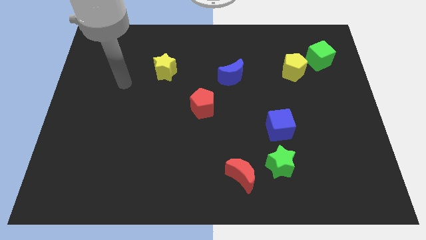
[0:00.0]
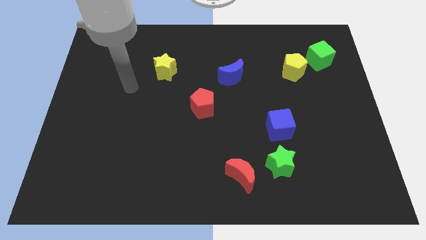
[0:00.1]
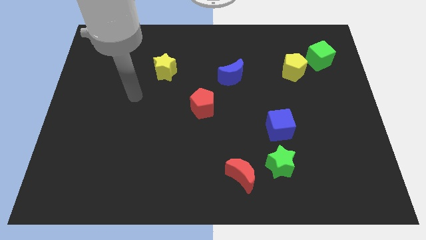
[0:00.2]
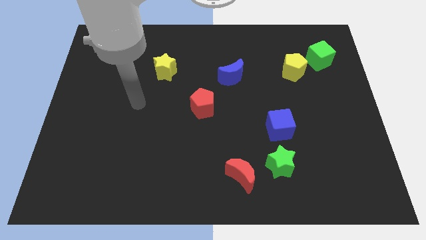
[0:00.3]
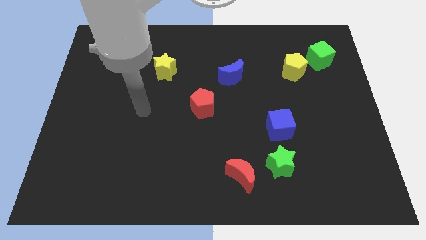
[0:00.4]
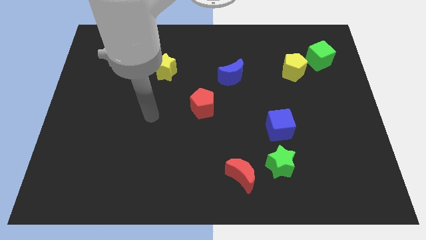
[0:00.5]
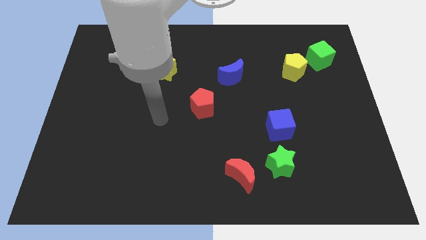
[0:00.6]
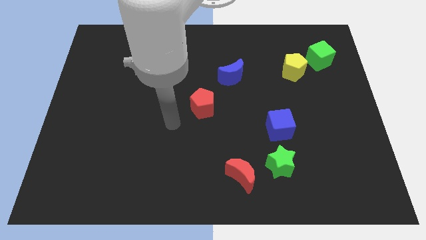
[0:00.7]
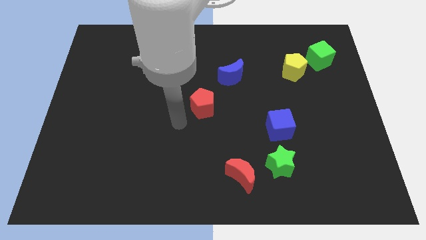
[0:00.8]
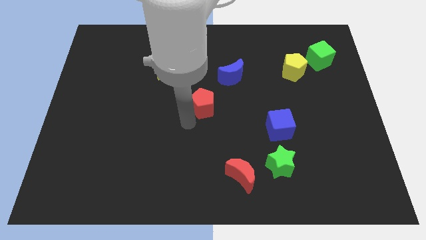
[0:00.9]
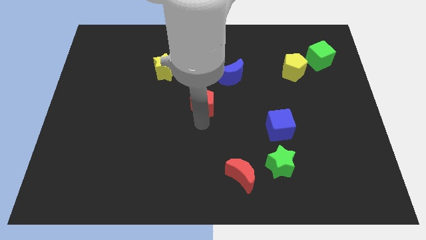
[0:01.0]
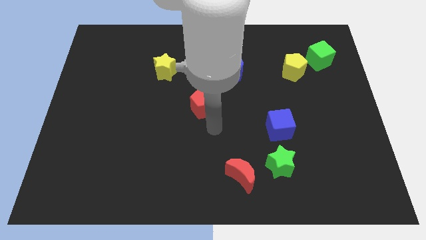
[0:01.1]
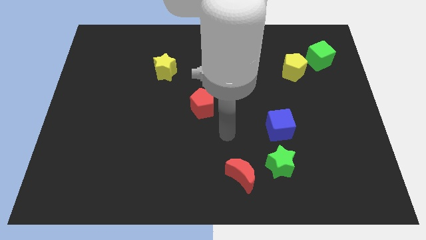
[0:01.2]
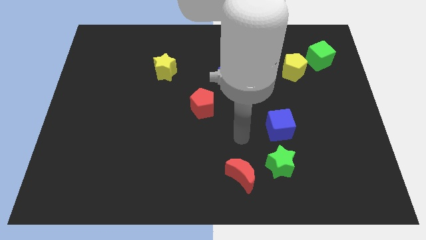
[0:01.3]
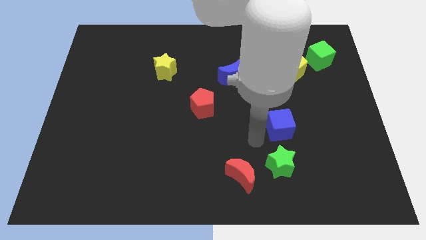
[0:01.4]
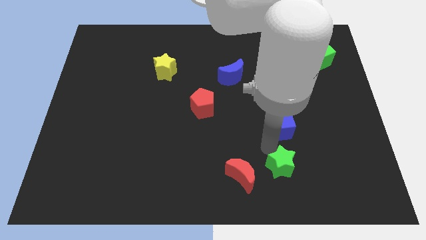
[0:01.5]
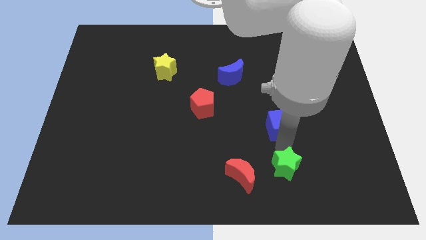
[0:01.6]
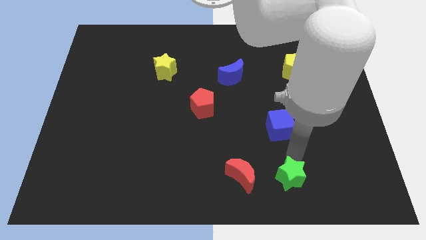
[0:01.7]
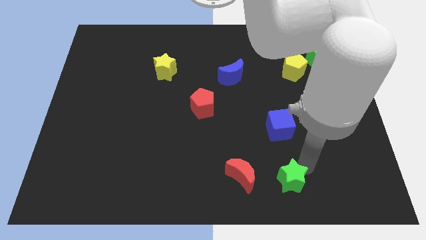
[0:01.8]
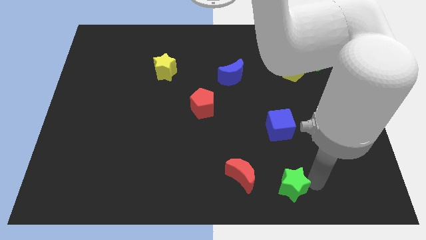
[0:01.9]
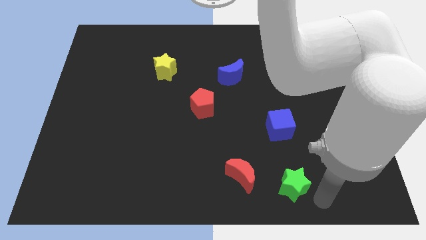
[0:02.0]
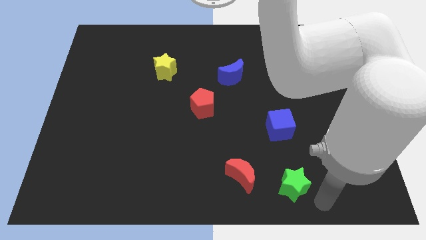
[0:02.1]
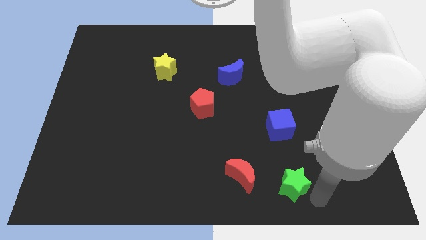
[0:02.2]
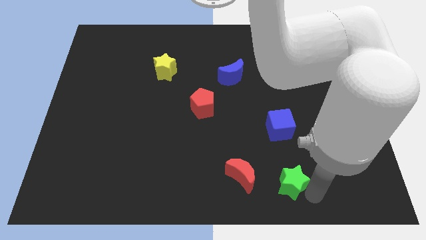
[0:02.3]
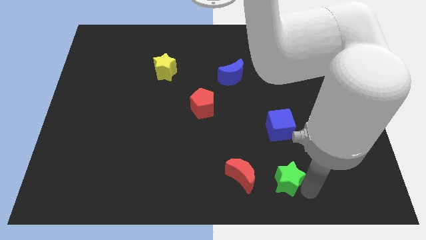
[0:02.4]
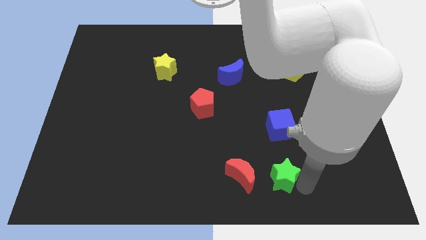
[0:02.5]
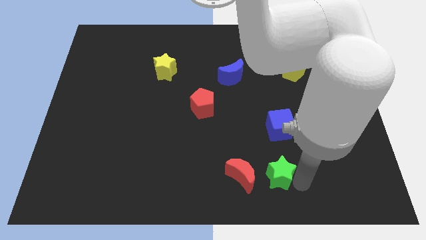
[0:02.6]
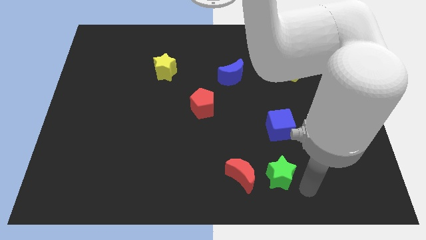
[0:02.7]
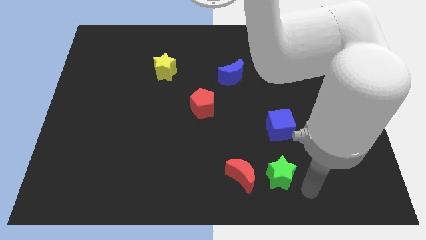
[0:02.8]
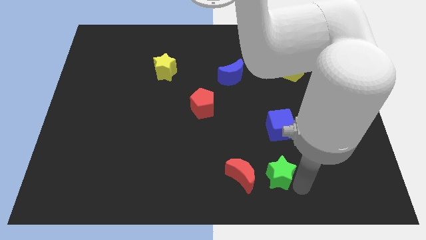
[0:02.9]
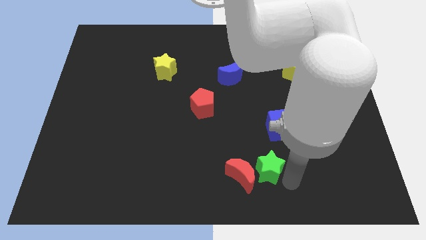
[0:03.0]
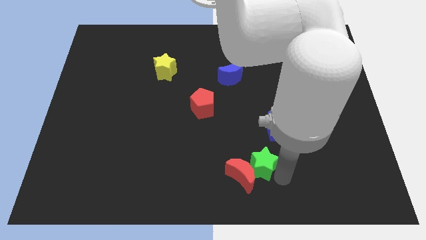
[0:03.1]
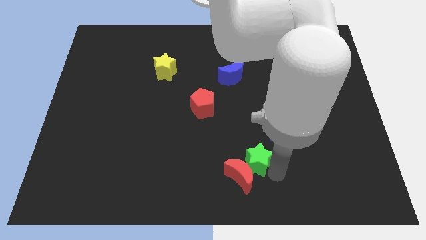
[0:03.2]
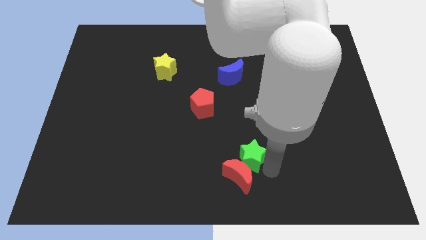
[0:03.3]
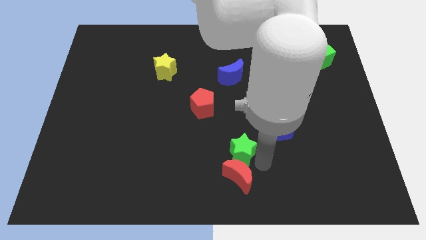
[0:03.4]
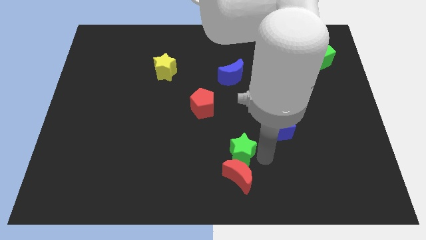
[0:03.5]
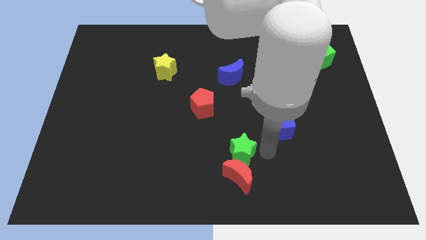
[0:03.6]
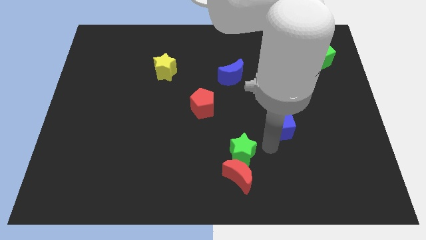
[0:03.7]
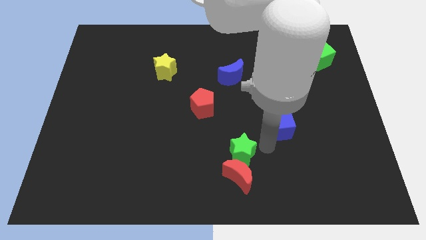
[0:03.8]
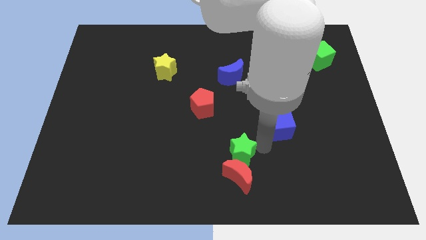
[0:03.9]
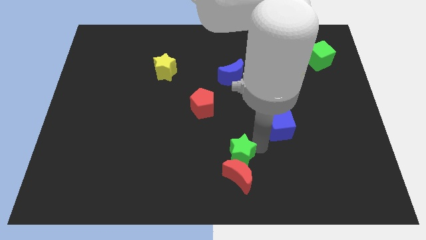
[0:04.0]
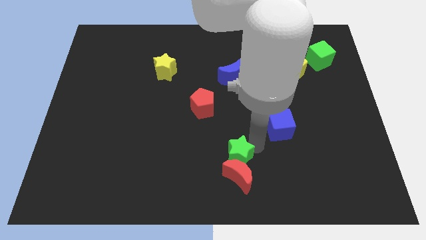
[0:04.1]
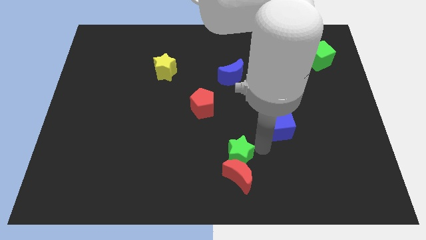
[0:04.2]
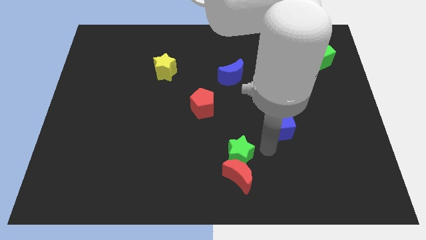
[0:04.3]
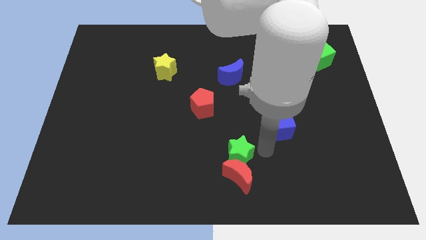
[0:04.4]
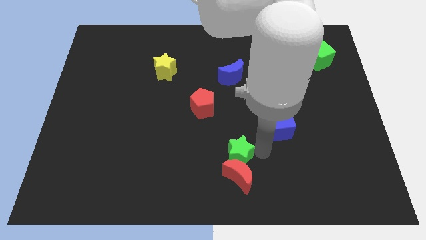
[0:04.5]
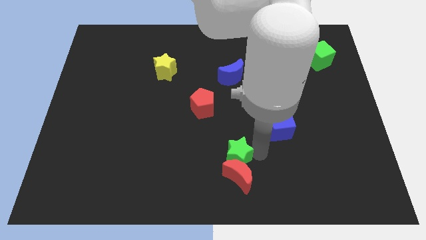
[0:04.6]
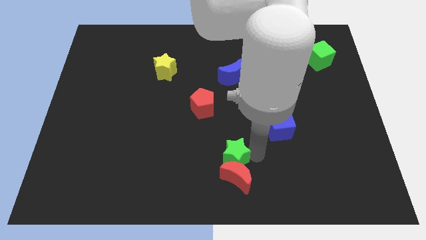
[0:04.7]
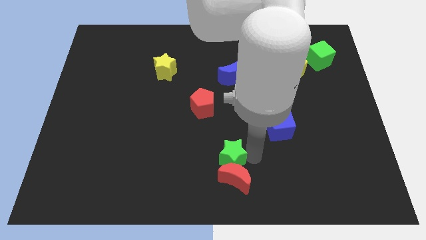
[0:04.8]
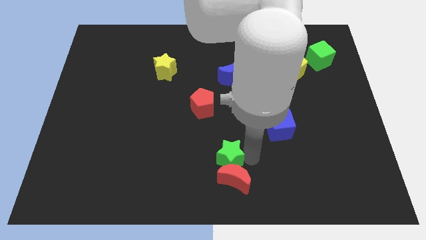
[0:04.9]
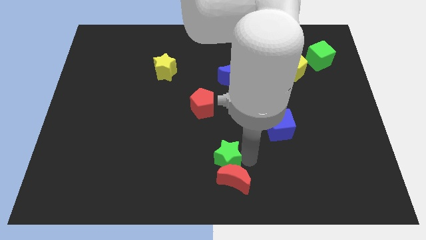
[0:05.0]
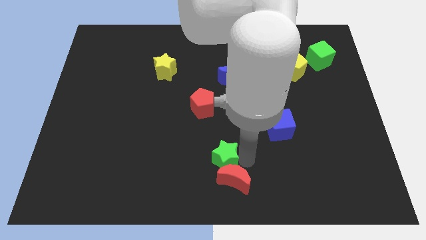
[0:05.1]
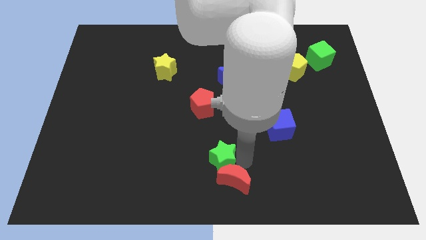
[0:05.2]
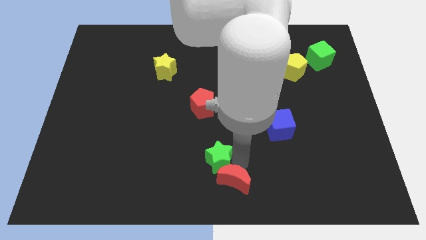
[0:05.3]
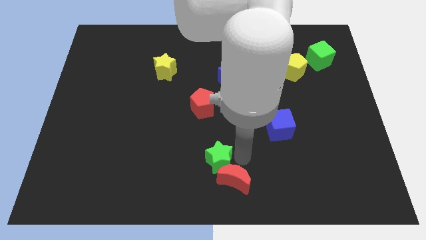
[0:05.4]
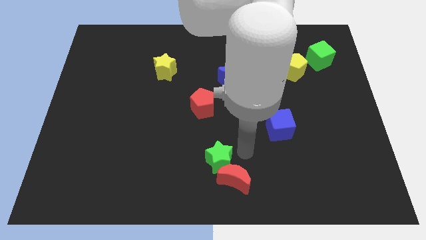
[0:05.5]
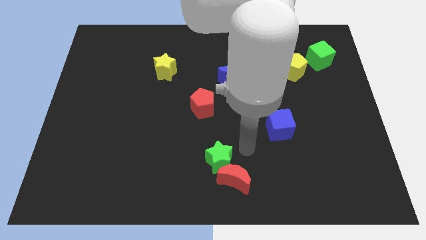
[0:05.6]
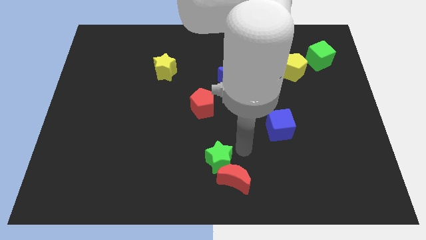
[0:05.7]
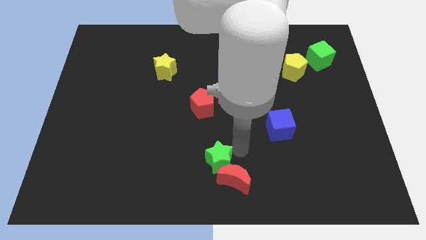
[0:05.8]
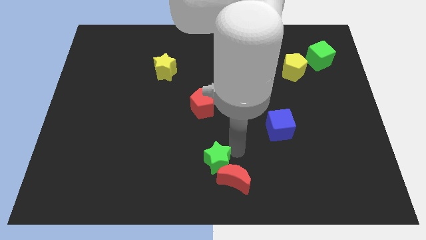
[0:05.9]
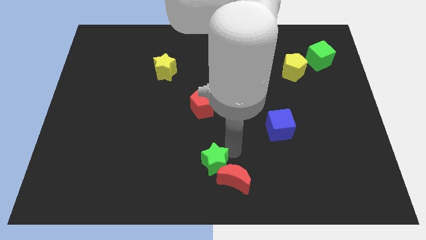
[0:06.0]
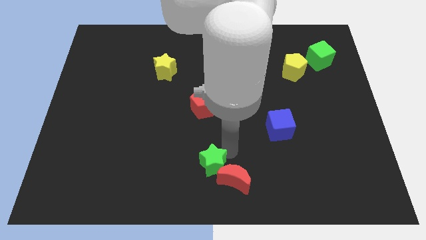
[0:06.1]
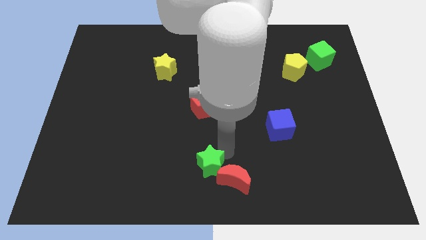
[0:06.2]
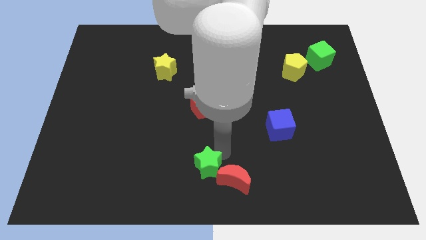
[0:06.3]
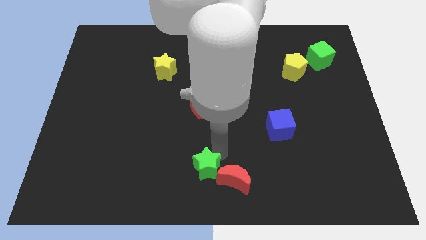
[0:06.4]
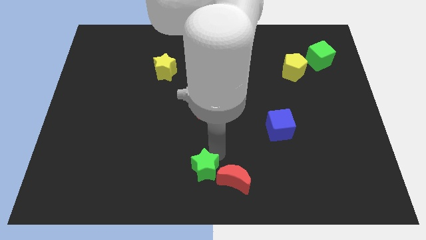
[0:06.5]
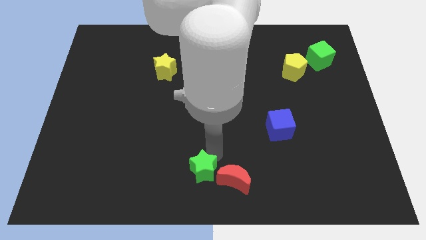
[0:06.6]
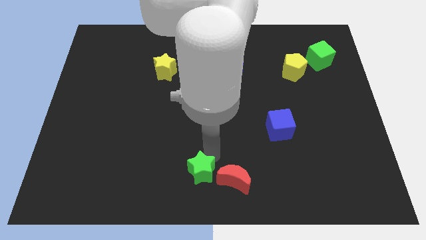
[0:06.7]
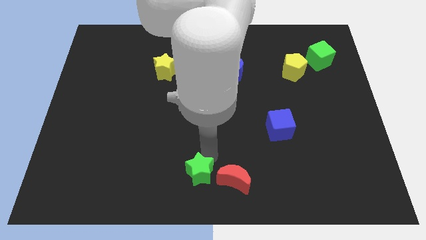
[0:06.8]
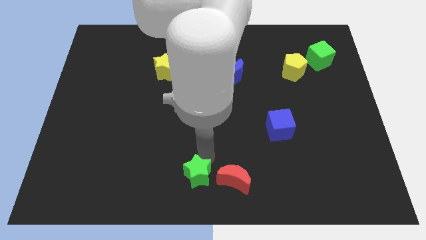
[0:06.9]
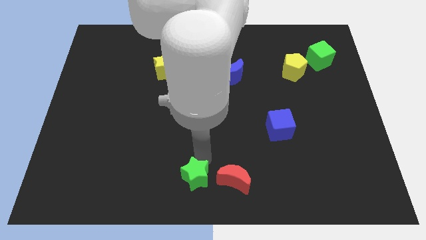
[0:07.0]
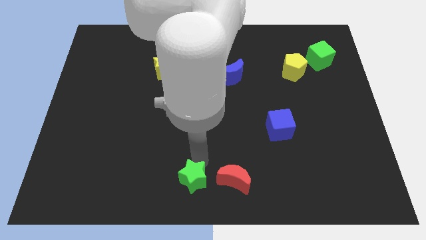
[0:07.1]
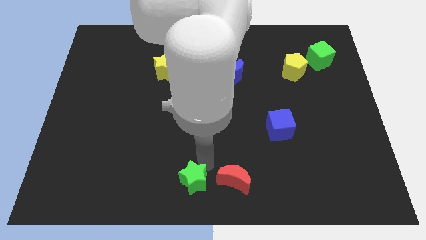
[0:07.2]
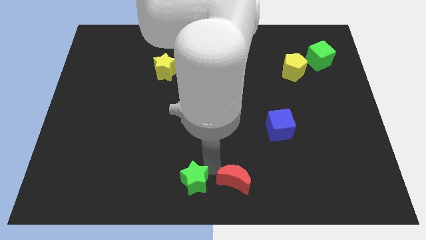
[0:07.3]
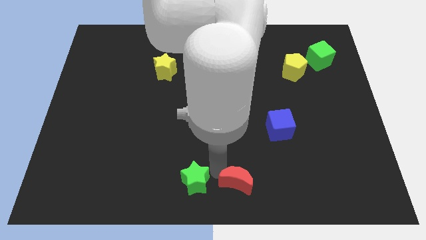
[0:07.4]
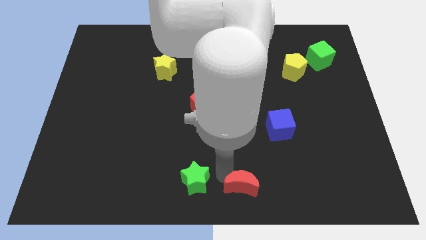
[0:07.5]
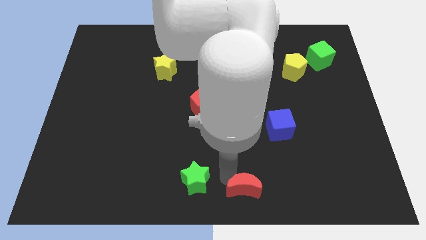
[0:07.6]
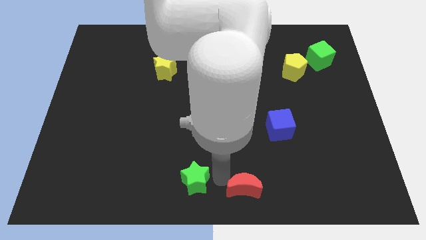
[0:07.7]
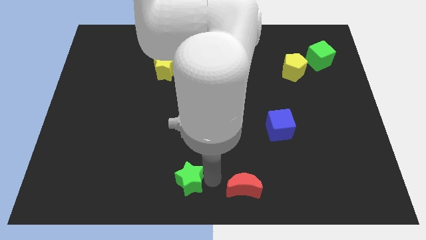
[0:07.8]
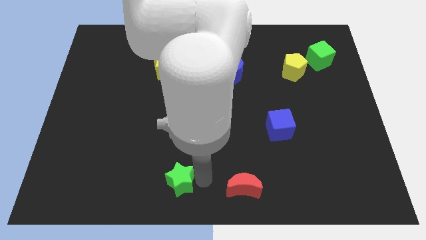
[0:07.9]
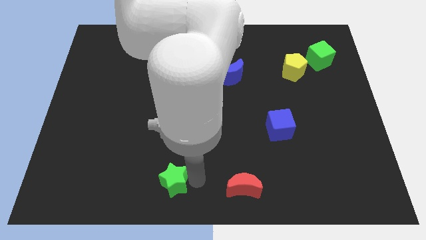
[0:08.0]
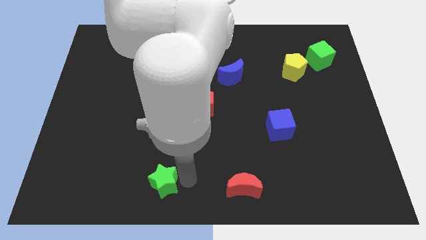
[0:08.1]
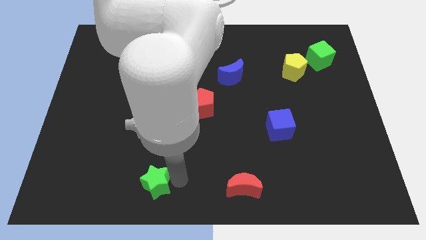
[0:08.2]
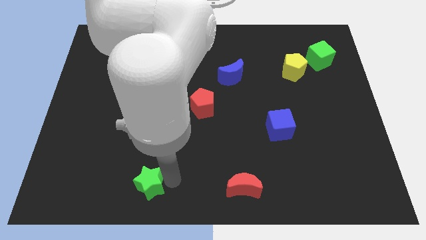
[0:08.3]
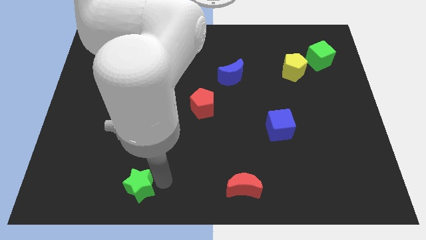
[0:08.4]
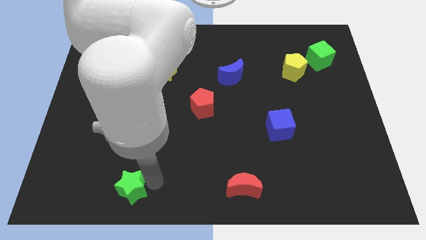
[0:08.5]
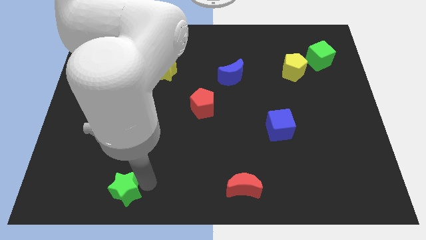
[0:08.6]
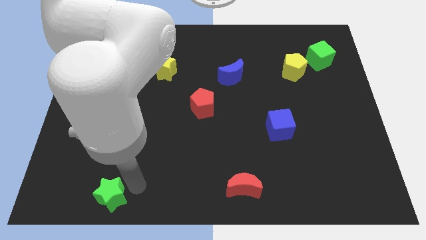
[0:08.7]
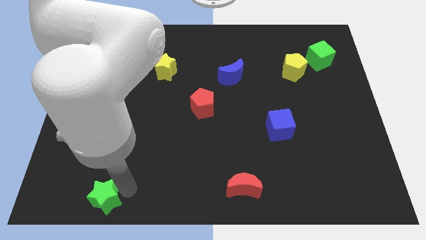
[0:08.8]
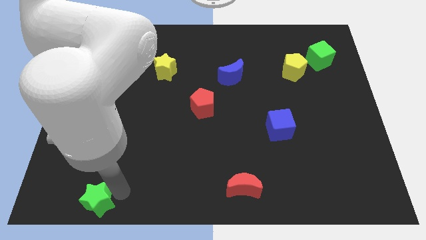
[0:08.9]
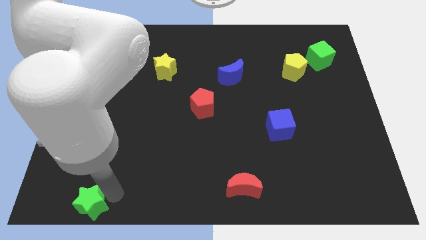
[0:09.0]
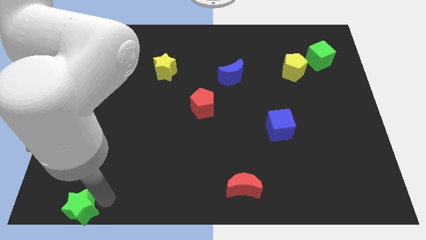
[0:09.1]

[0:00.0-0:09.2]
push the green star to the lower left corner
